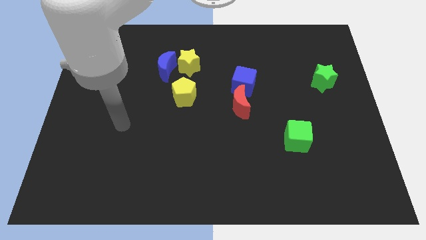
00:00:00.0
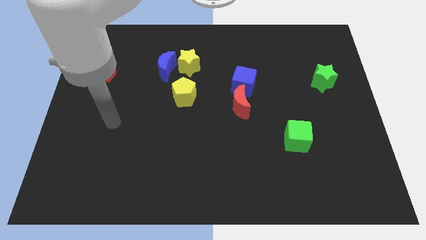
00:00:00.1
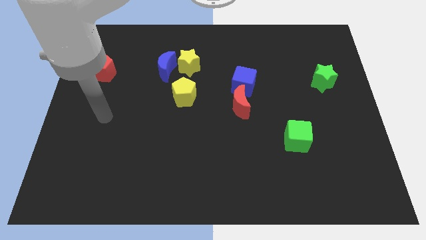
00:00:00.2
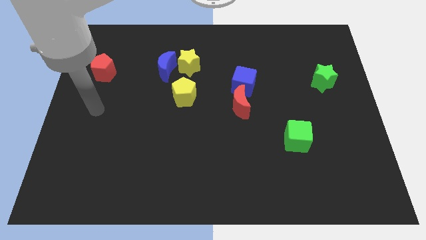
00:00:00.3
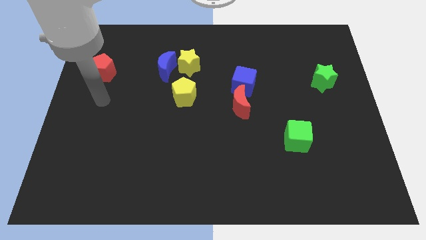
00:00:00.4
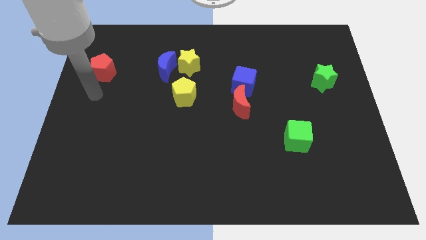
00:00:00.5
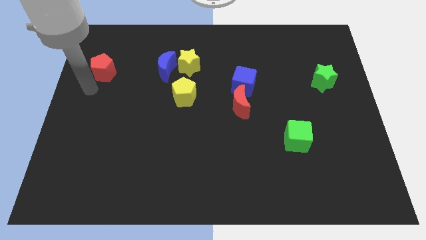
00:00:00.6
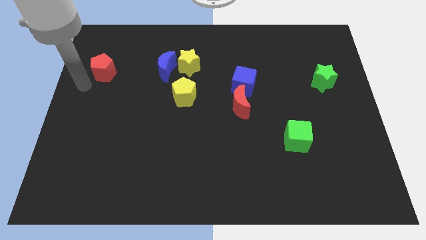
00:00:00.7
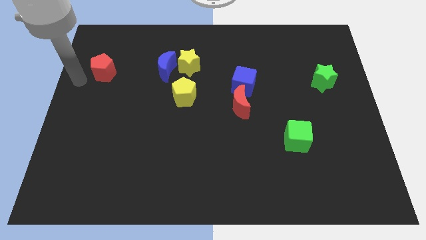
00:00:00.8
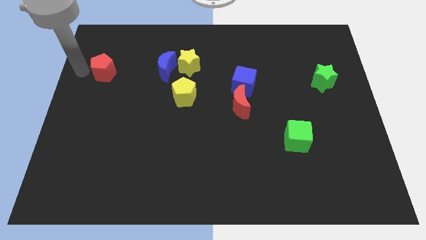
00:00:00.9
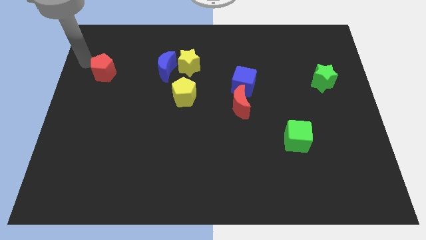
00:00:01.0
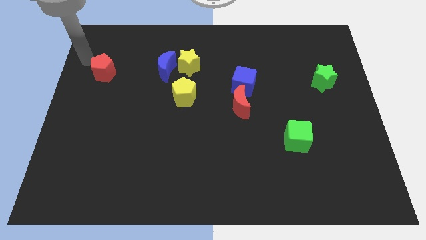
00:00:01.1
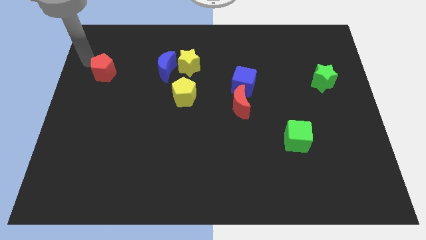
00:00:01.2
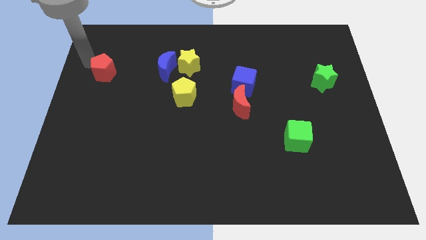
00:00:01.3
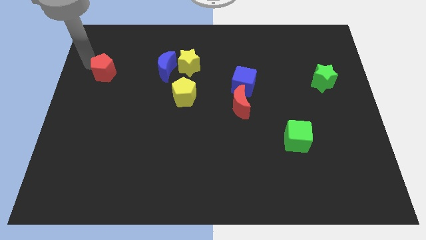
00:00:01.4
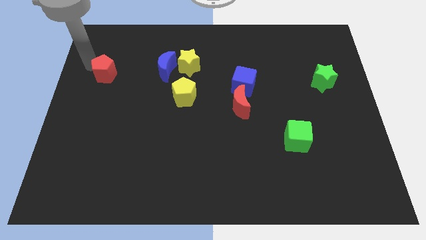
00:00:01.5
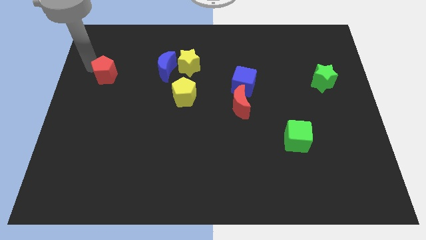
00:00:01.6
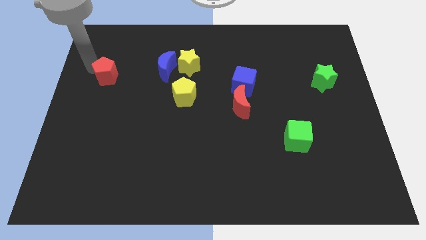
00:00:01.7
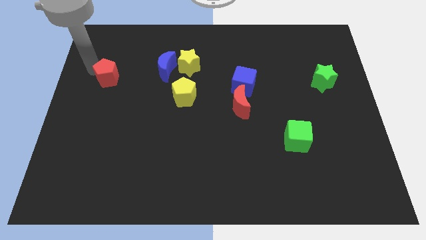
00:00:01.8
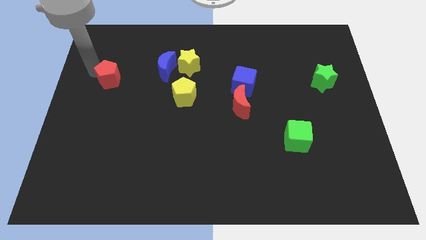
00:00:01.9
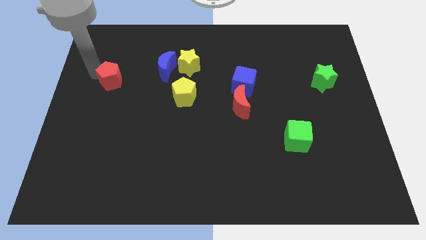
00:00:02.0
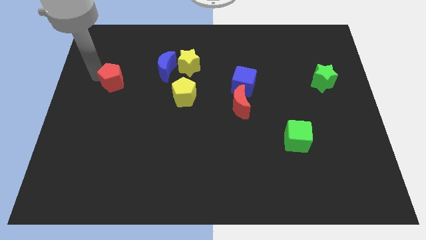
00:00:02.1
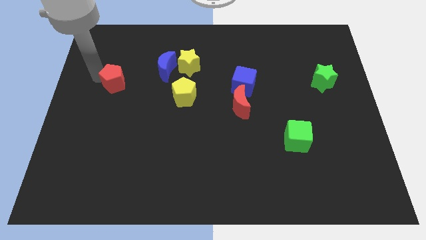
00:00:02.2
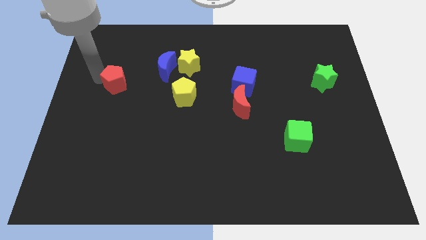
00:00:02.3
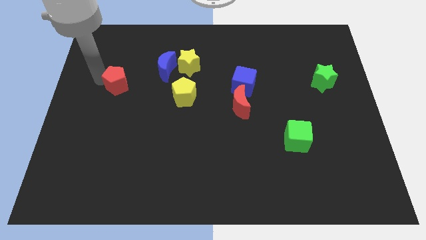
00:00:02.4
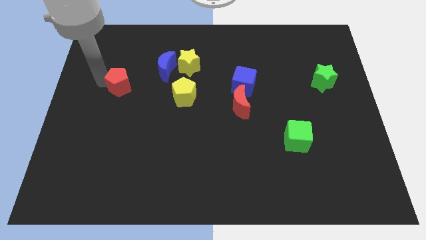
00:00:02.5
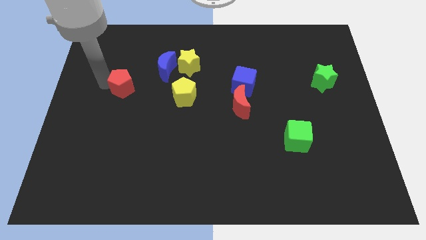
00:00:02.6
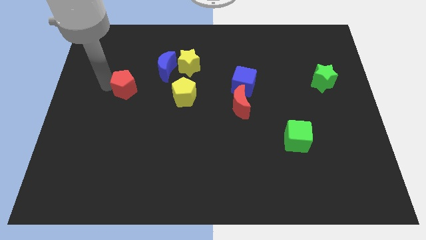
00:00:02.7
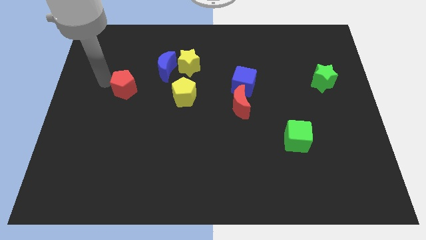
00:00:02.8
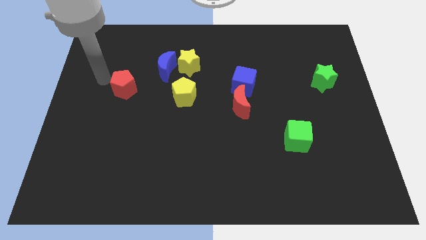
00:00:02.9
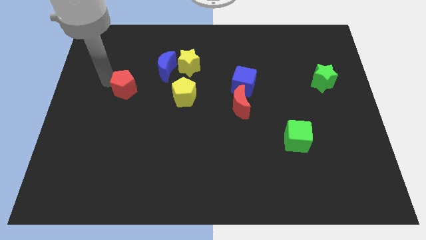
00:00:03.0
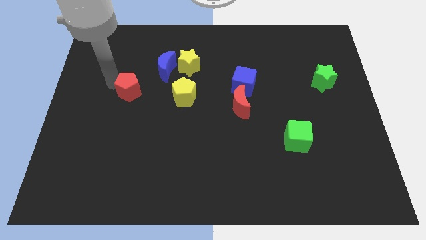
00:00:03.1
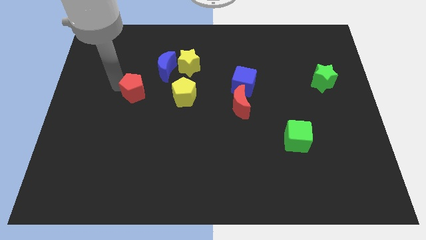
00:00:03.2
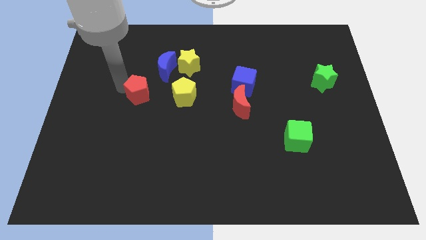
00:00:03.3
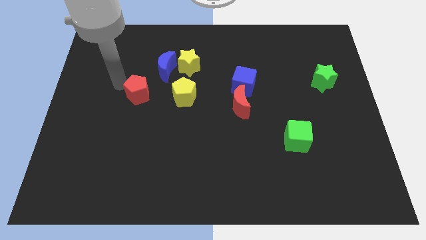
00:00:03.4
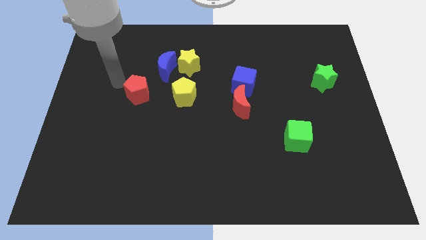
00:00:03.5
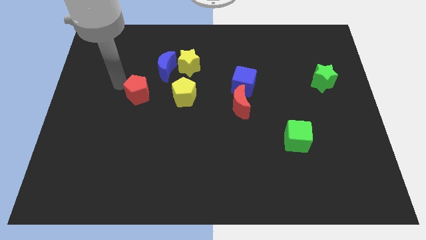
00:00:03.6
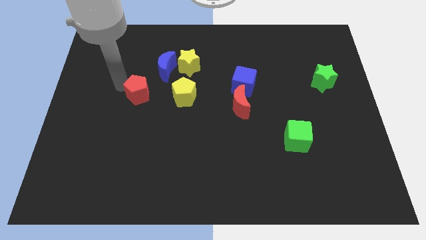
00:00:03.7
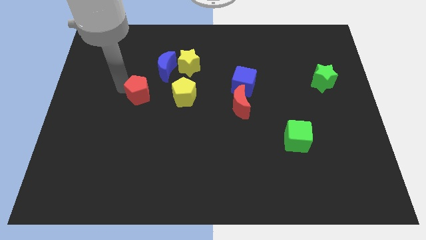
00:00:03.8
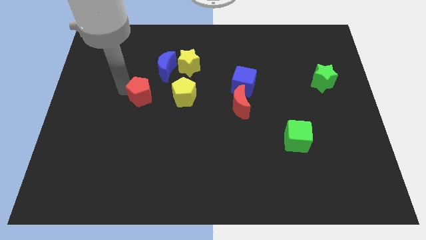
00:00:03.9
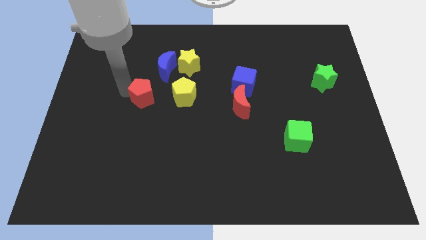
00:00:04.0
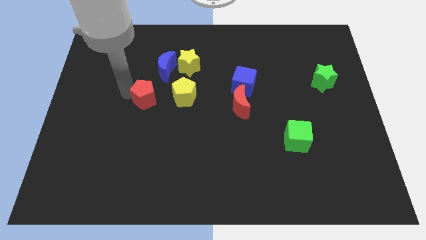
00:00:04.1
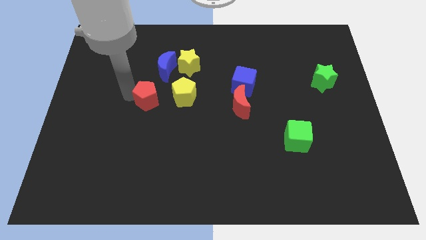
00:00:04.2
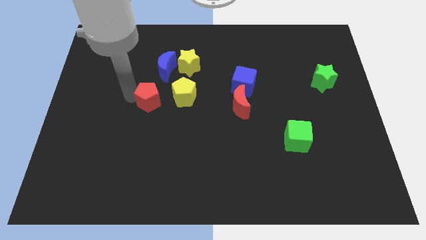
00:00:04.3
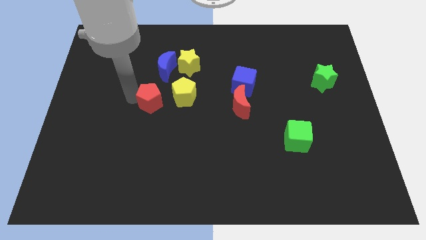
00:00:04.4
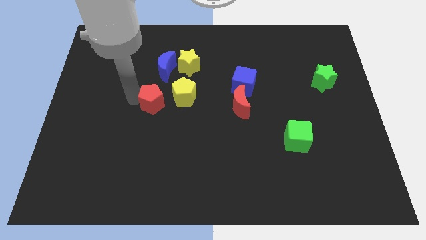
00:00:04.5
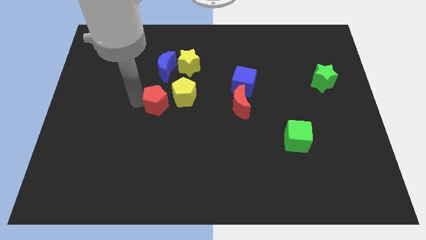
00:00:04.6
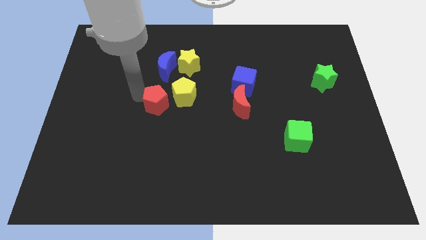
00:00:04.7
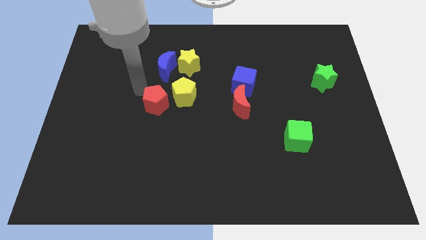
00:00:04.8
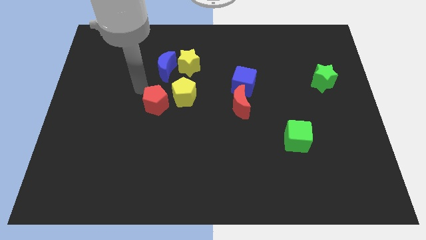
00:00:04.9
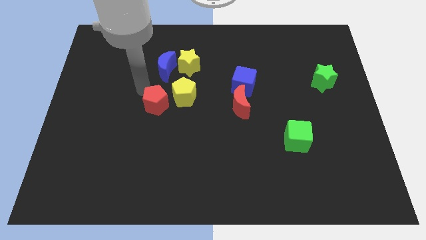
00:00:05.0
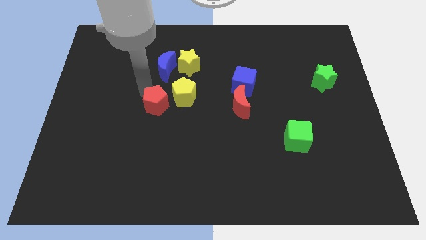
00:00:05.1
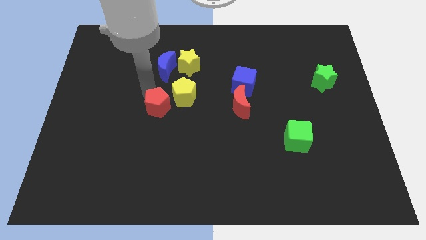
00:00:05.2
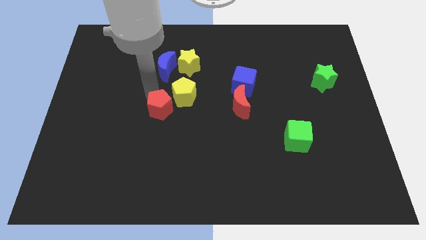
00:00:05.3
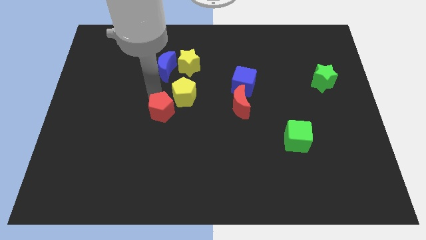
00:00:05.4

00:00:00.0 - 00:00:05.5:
push the red pentagon below the yellow pentagon

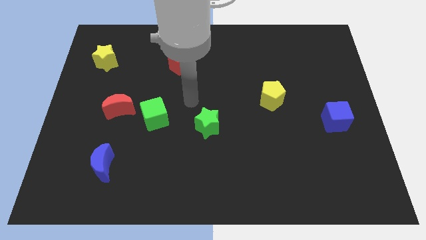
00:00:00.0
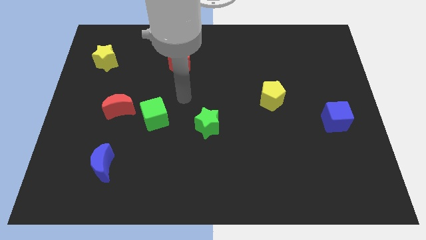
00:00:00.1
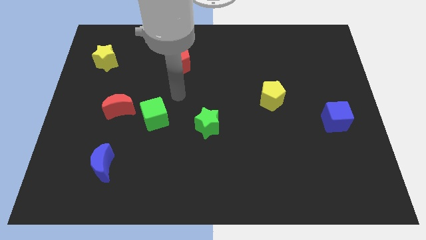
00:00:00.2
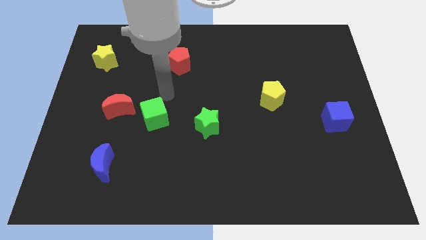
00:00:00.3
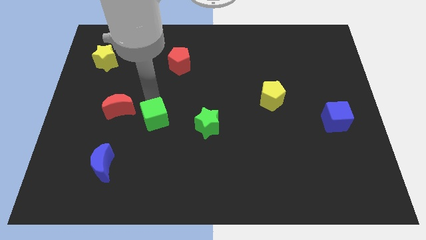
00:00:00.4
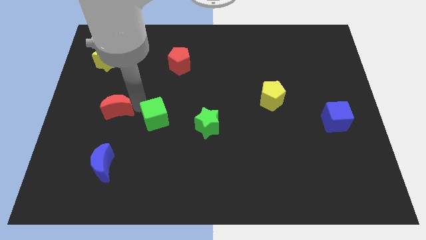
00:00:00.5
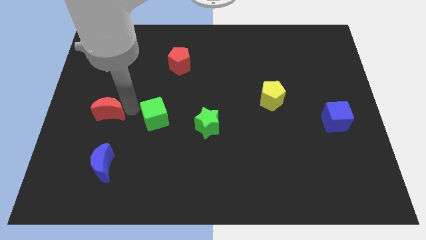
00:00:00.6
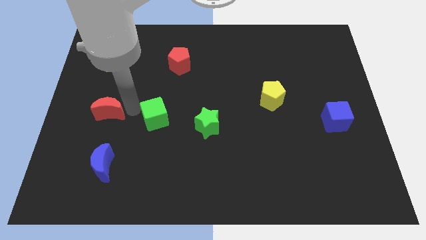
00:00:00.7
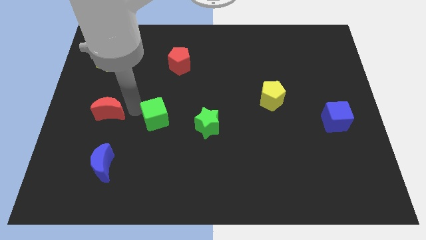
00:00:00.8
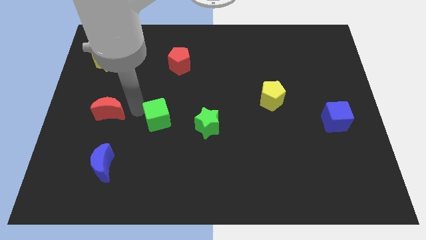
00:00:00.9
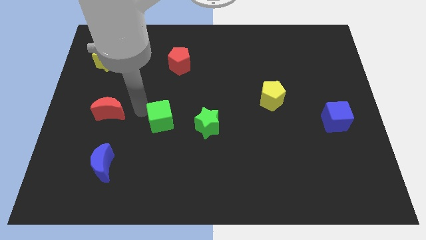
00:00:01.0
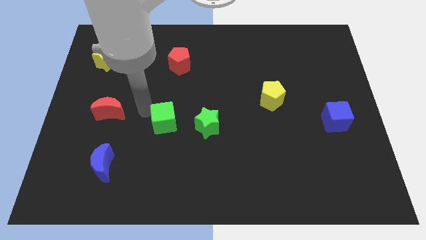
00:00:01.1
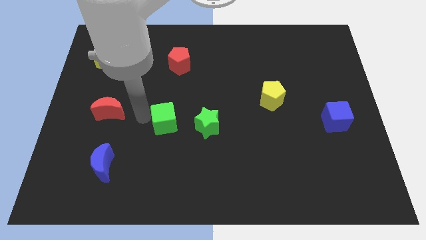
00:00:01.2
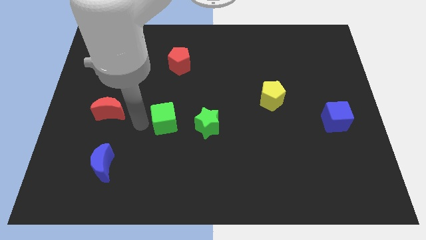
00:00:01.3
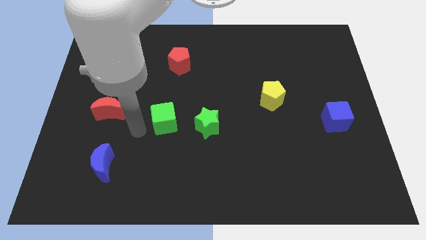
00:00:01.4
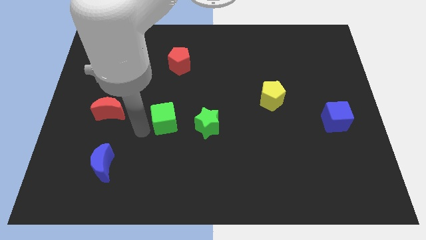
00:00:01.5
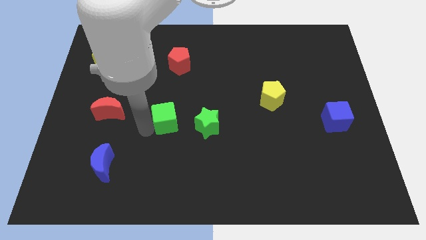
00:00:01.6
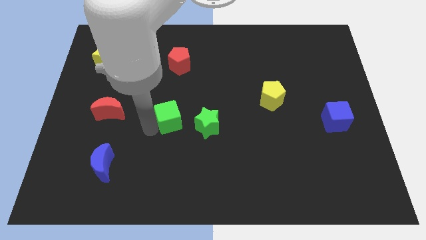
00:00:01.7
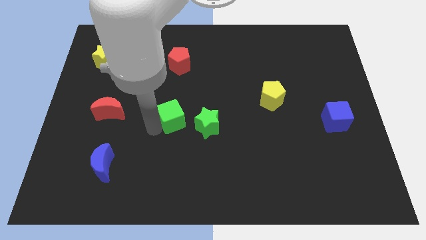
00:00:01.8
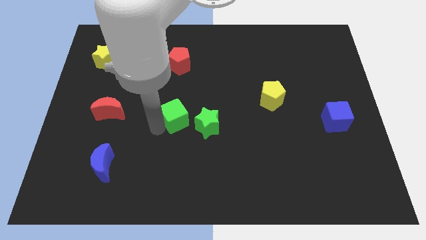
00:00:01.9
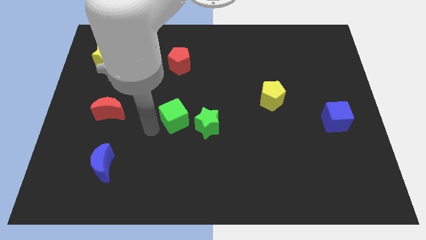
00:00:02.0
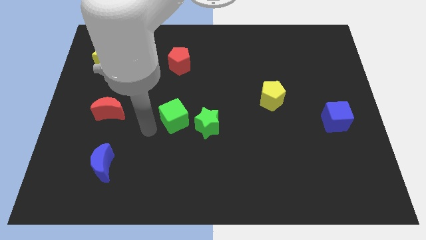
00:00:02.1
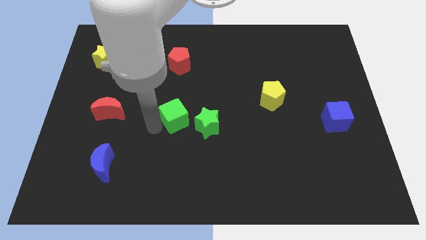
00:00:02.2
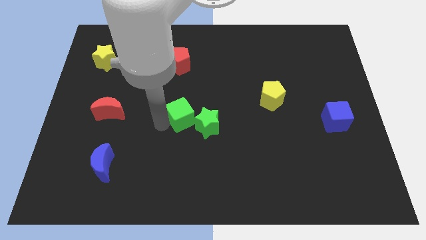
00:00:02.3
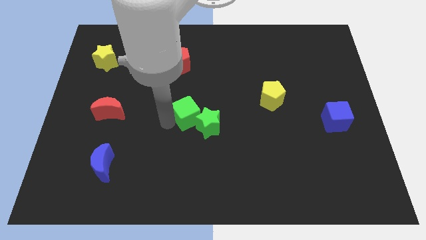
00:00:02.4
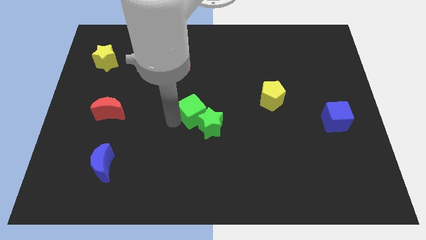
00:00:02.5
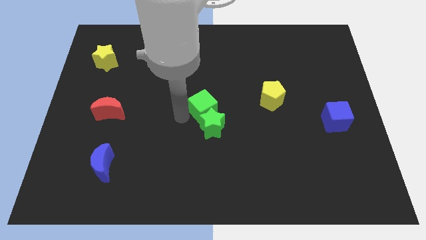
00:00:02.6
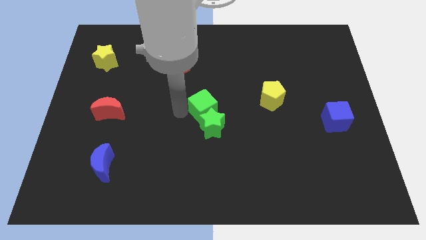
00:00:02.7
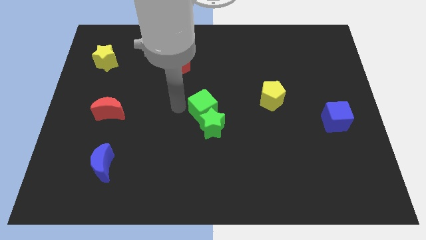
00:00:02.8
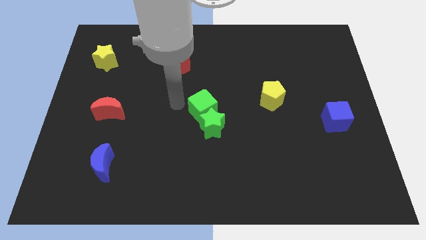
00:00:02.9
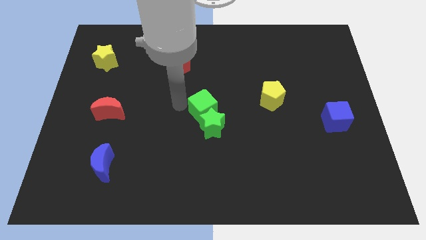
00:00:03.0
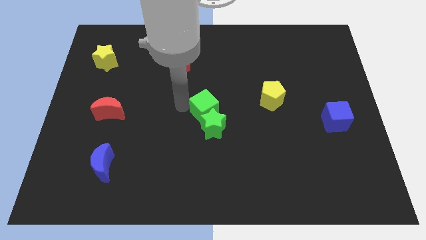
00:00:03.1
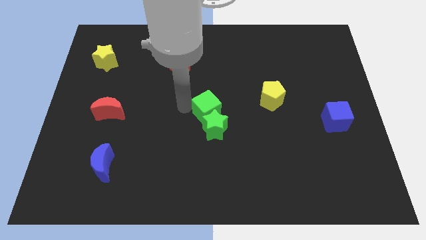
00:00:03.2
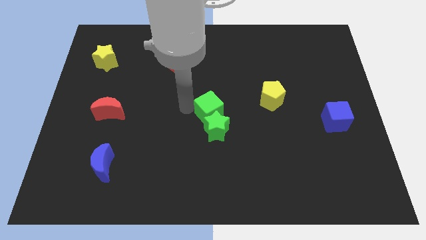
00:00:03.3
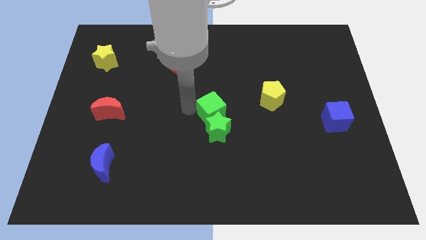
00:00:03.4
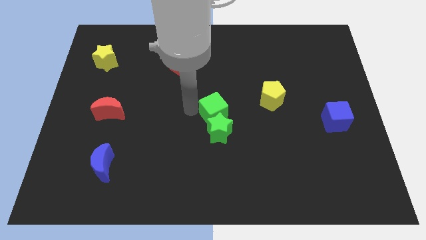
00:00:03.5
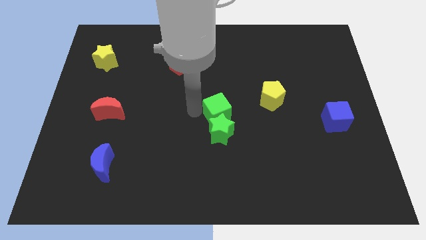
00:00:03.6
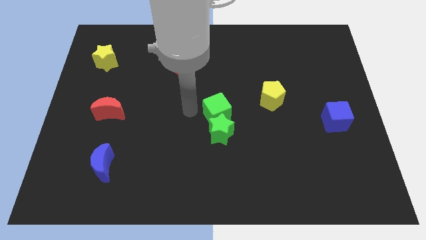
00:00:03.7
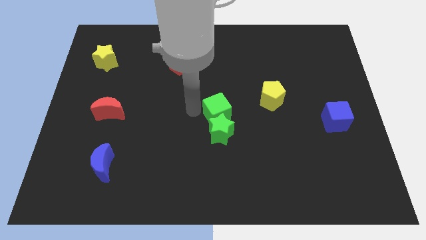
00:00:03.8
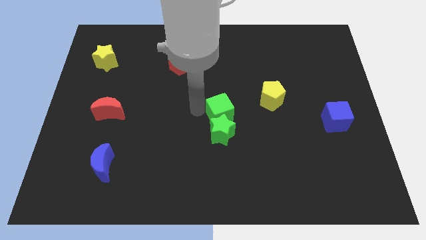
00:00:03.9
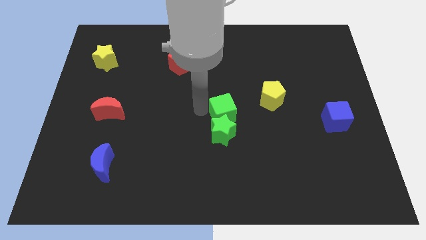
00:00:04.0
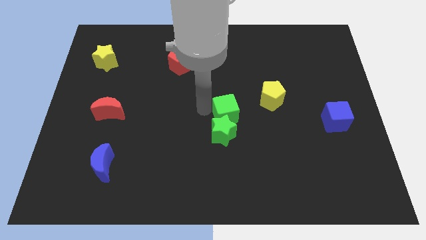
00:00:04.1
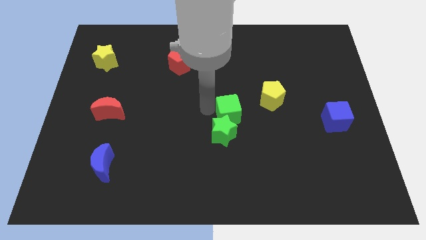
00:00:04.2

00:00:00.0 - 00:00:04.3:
slide the green cube to the bottom left of the yellow pentagon
